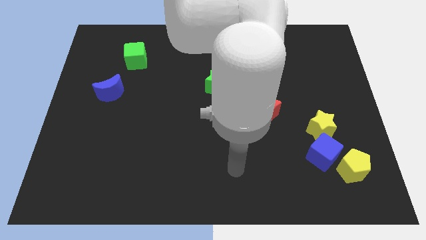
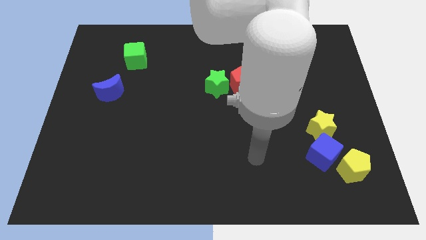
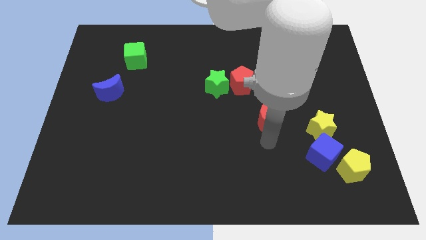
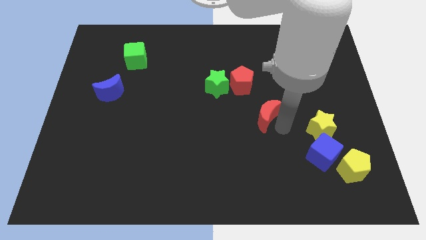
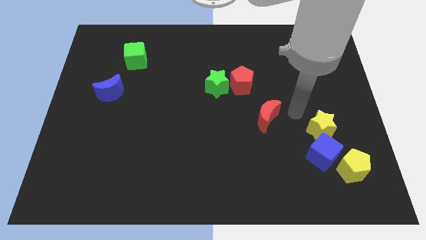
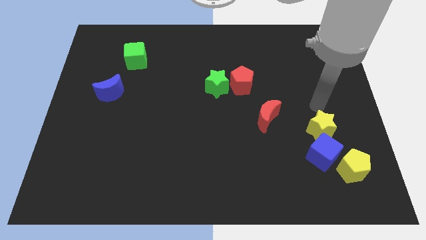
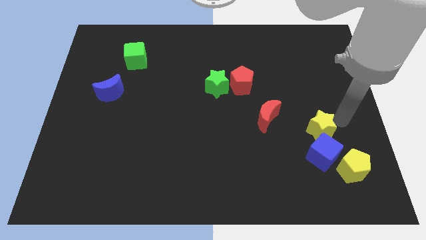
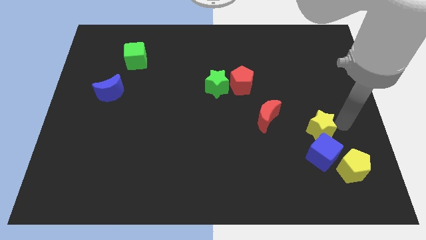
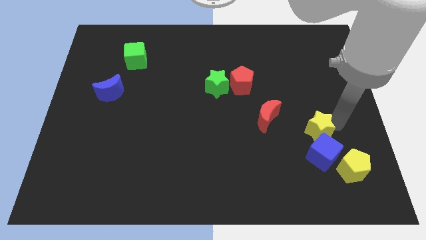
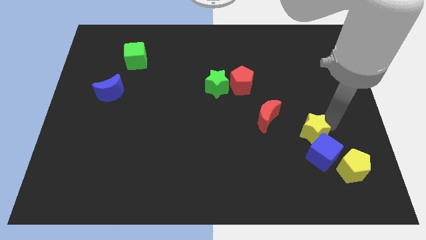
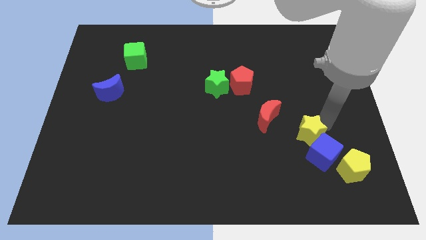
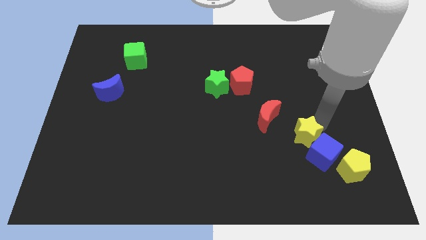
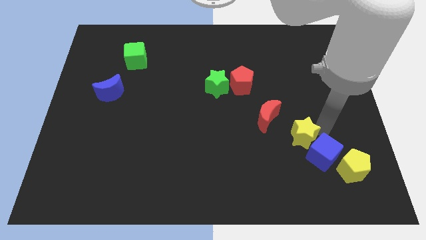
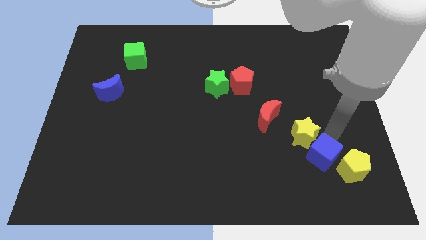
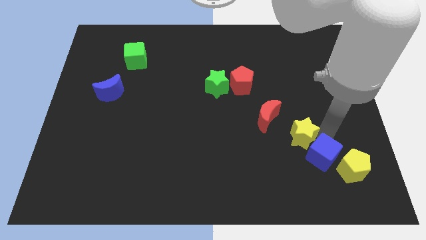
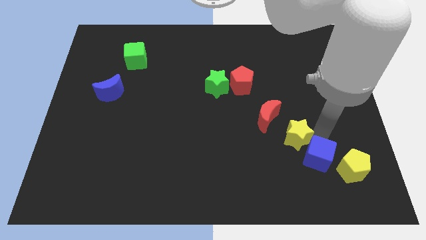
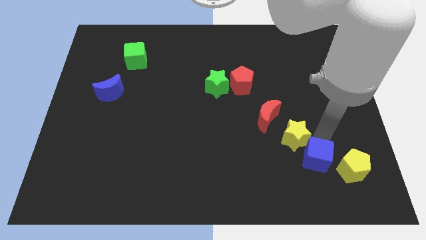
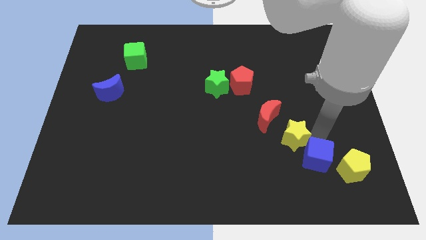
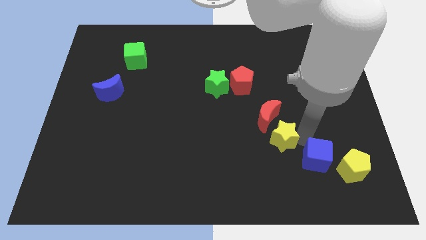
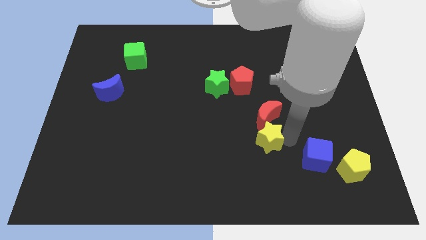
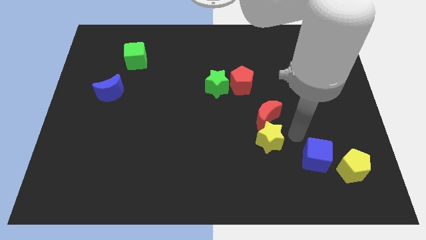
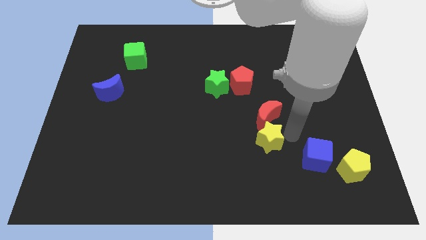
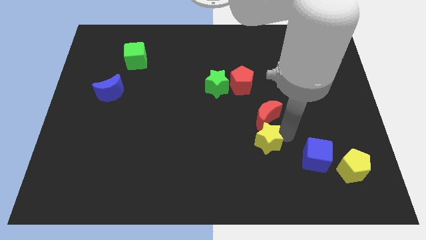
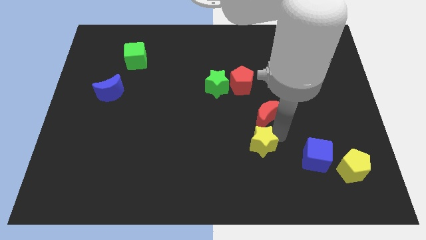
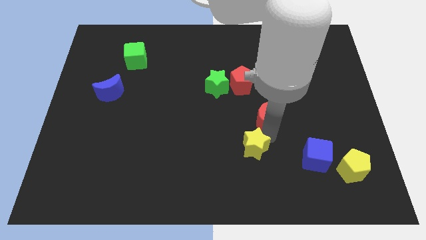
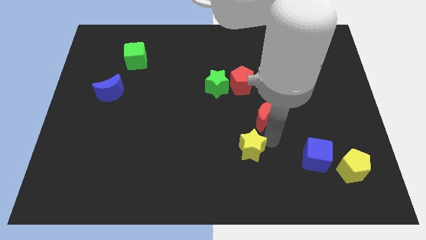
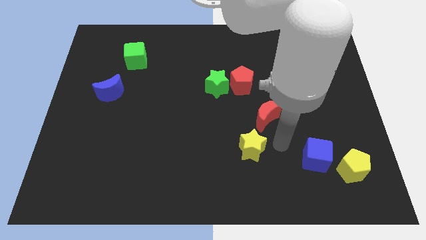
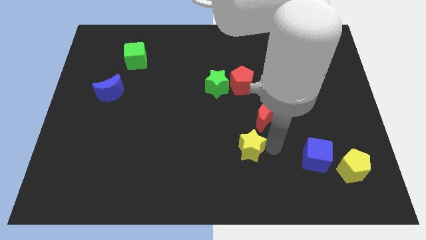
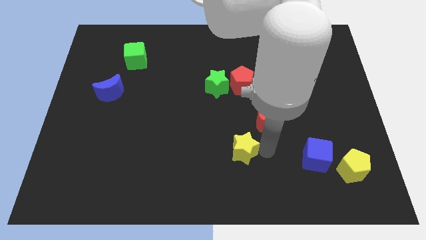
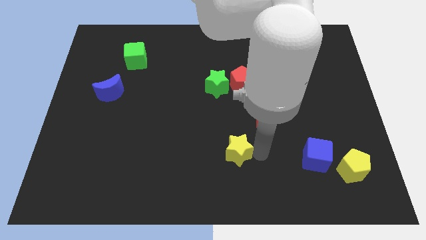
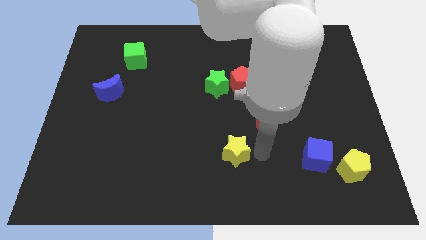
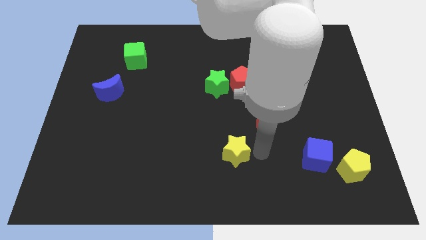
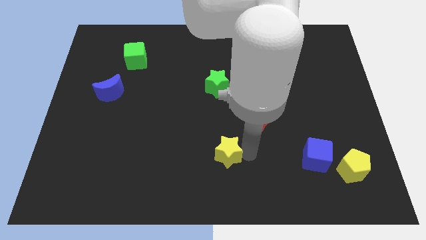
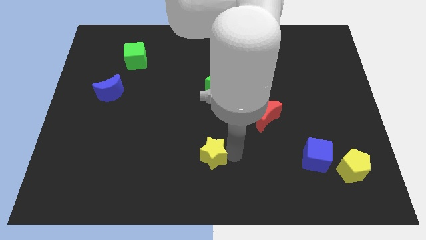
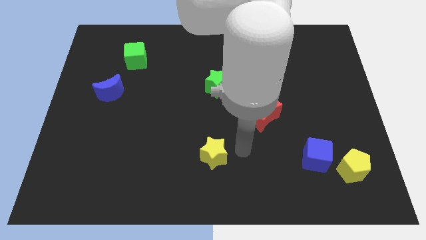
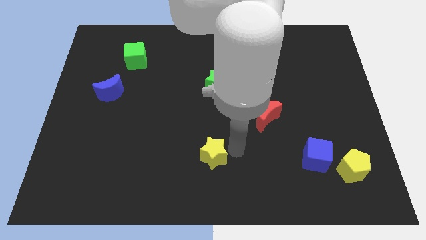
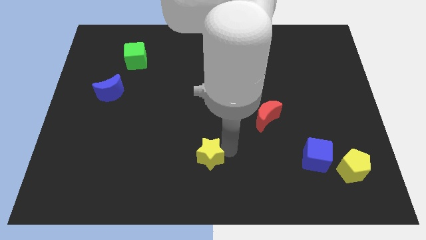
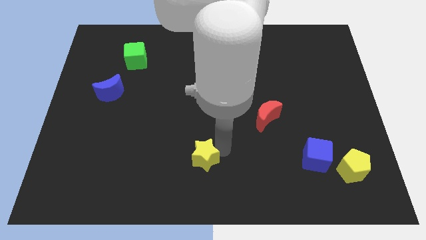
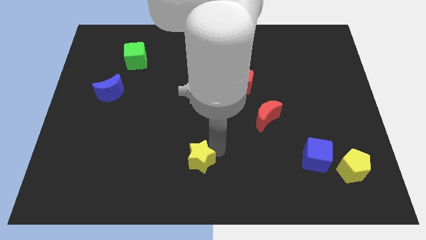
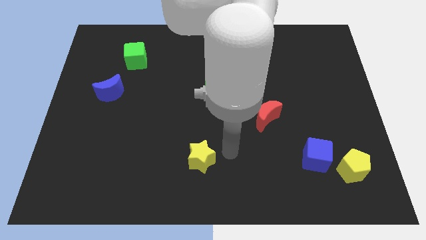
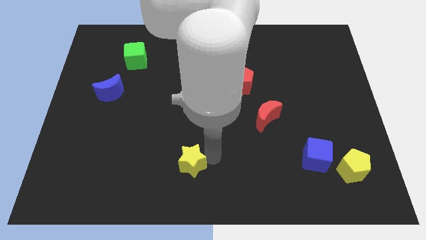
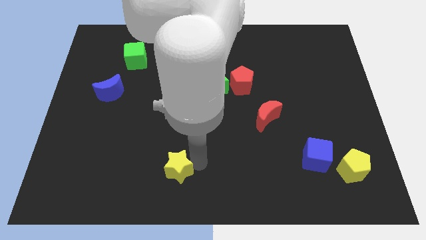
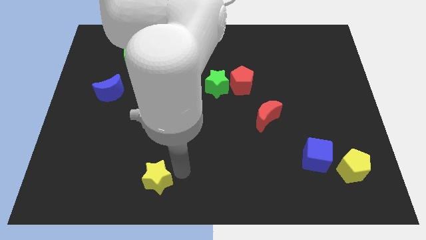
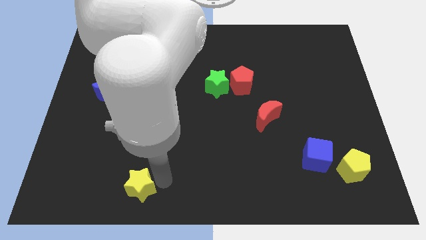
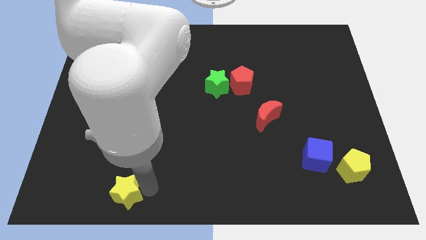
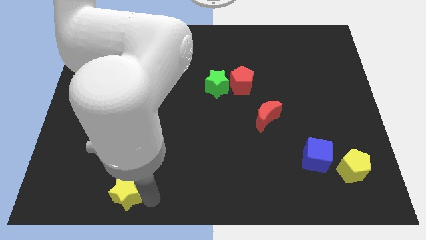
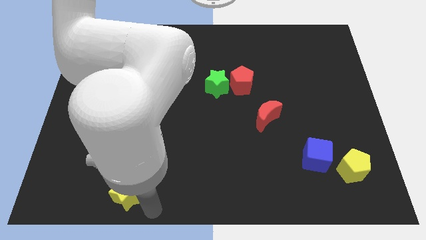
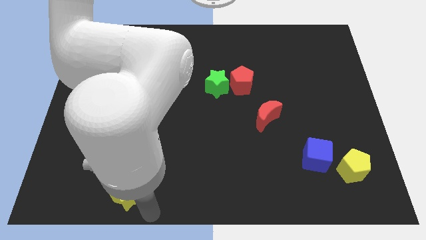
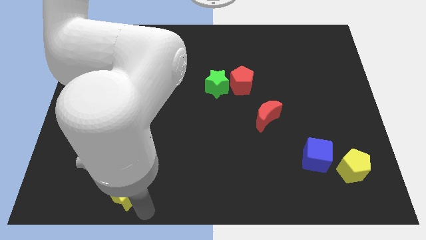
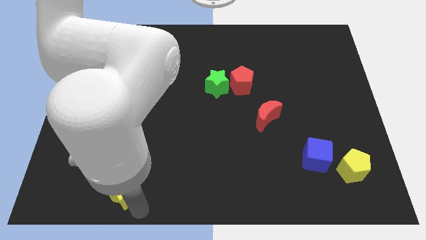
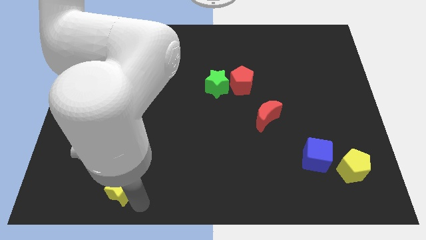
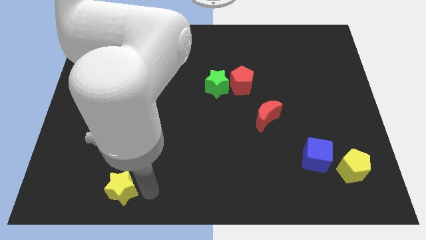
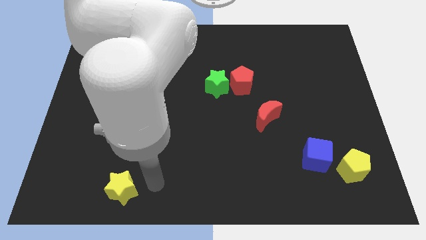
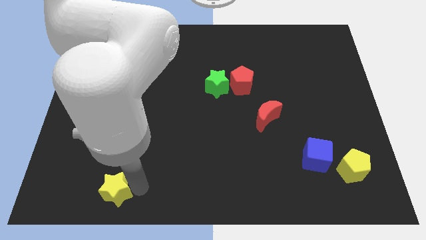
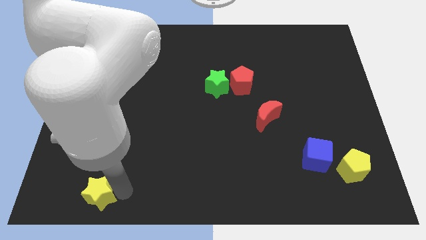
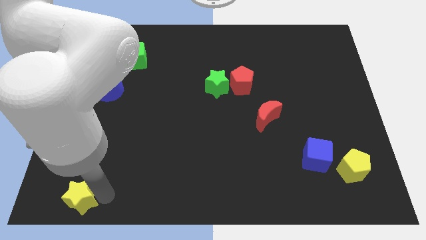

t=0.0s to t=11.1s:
push the yellow star to the bottom left corner

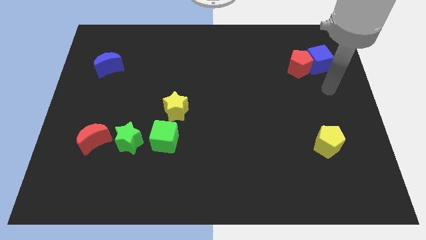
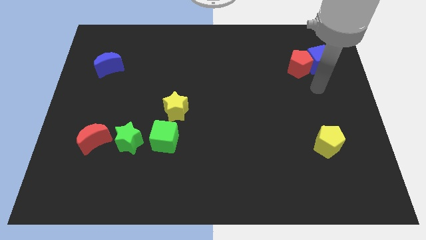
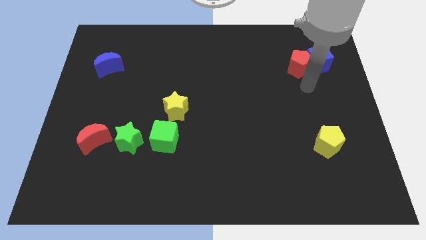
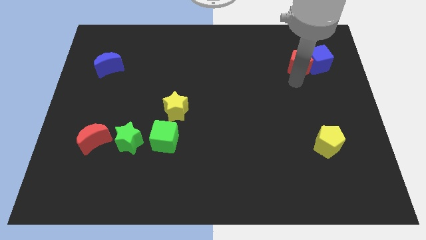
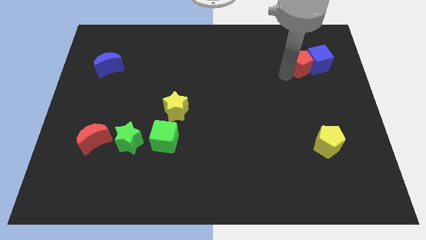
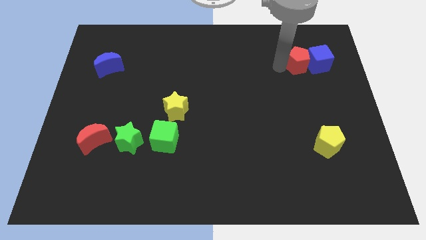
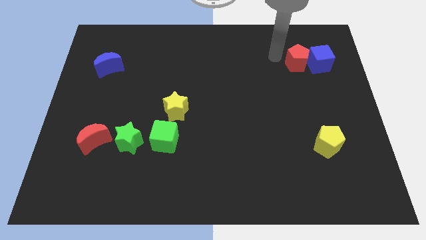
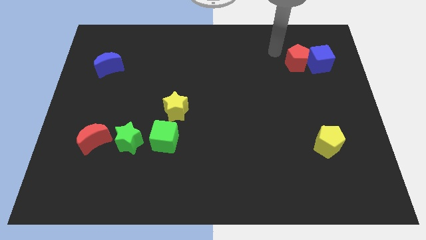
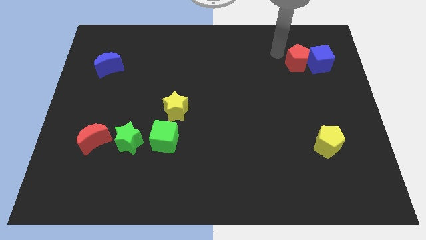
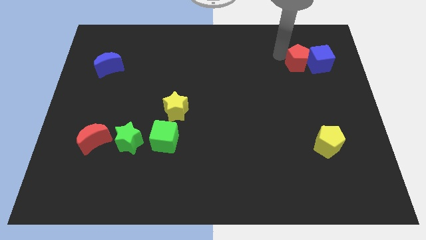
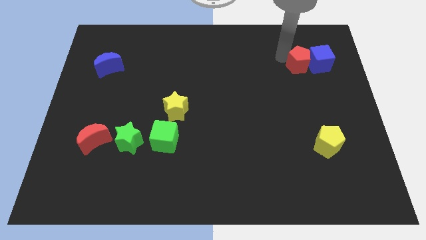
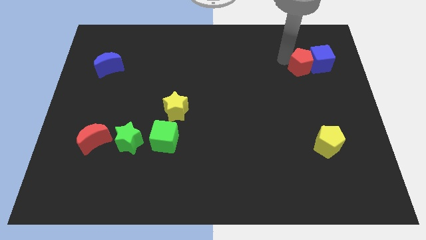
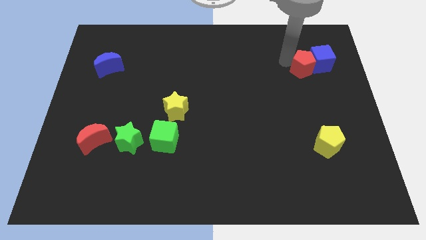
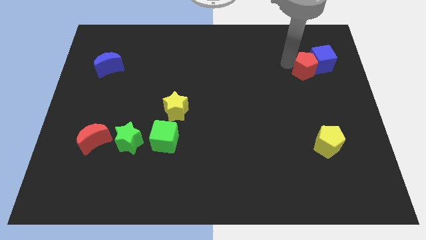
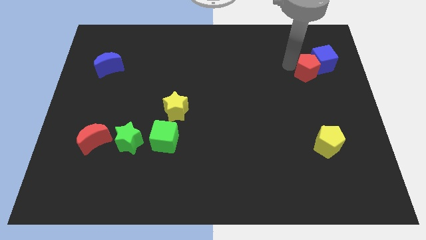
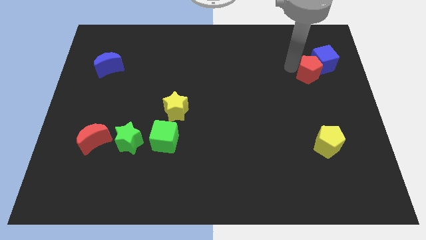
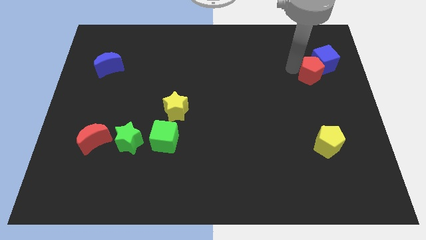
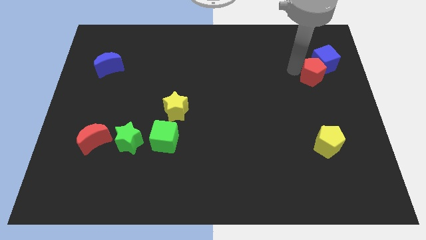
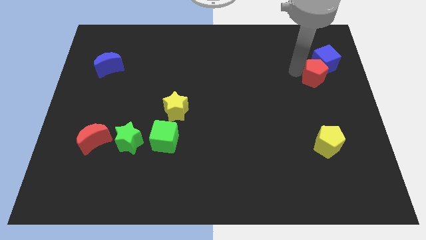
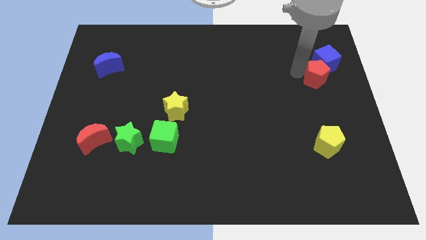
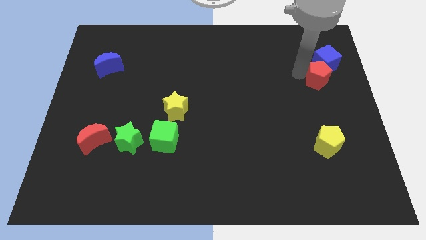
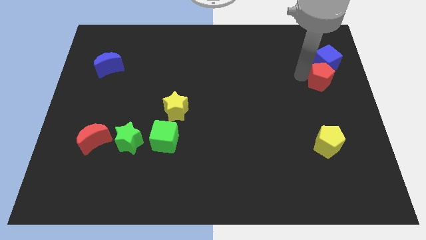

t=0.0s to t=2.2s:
move the red pentagon to the right side of the board
